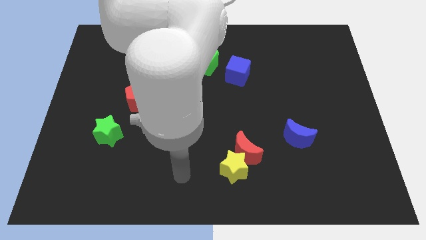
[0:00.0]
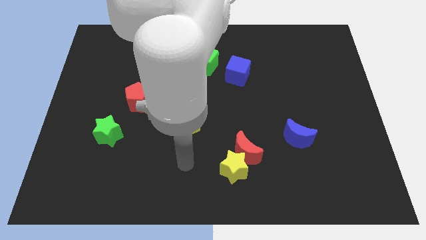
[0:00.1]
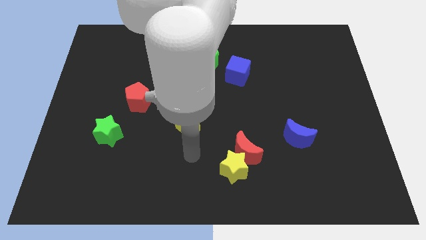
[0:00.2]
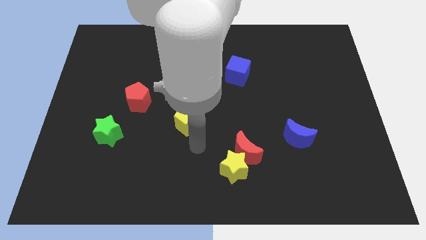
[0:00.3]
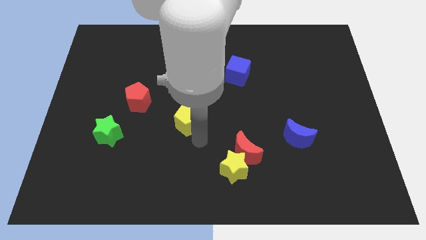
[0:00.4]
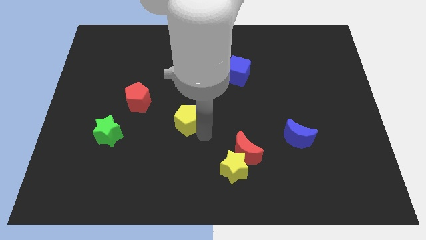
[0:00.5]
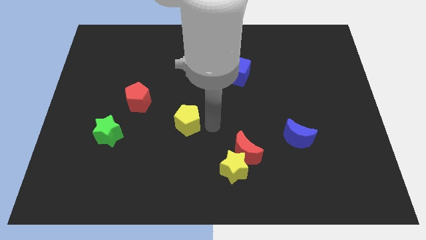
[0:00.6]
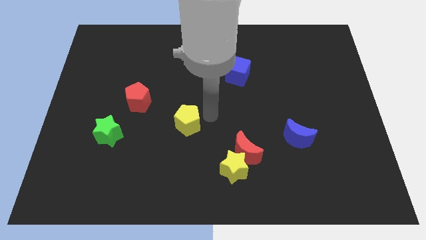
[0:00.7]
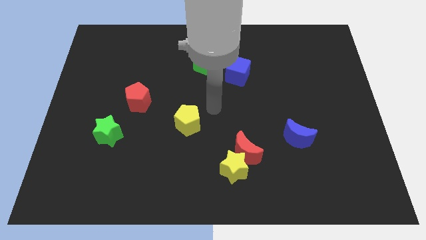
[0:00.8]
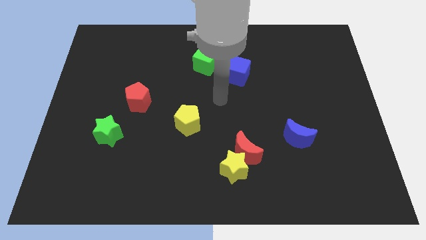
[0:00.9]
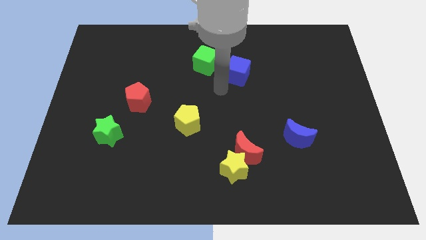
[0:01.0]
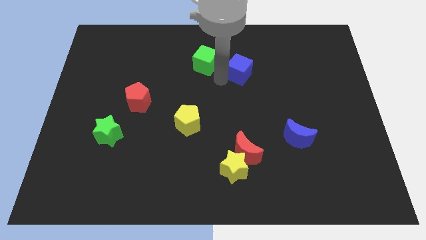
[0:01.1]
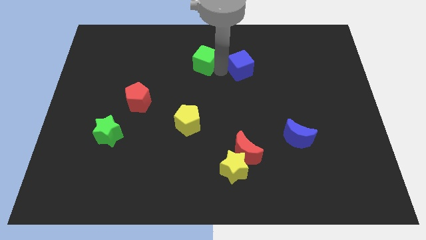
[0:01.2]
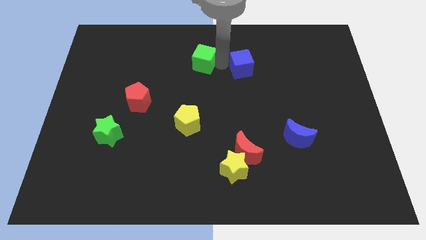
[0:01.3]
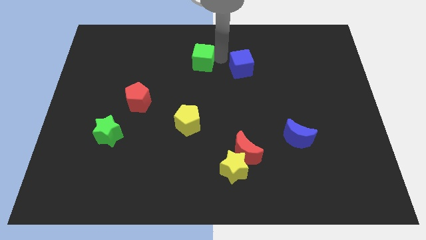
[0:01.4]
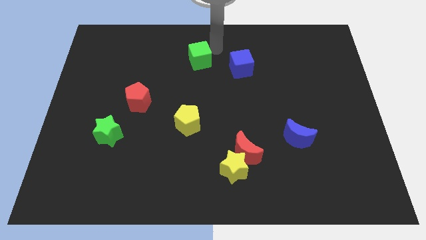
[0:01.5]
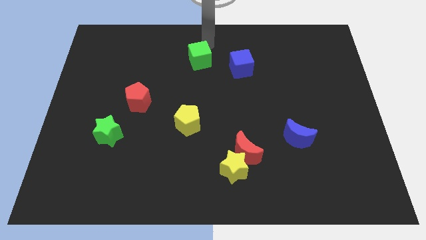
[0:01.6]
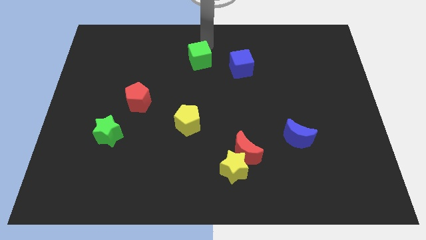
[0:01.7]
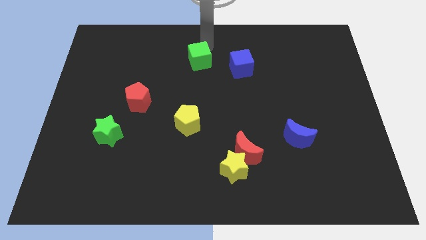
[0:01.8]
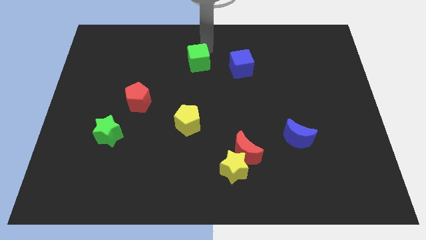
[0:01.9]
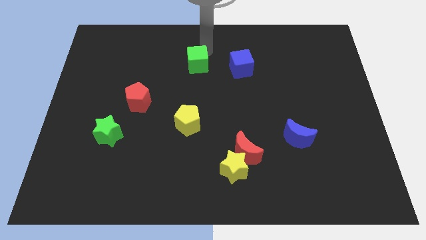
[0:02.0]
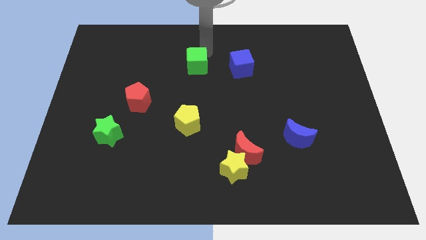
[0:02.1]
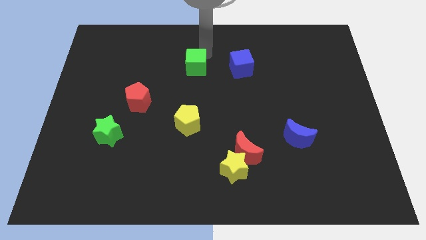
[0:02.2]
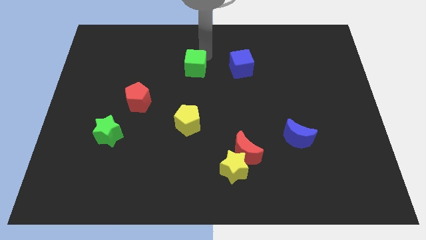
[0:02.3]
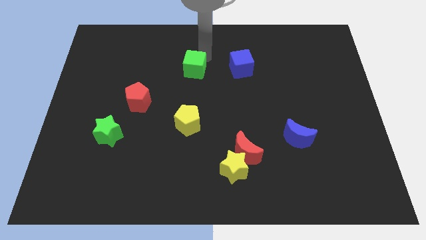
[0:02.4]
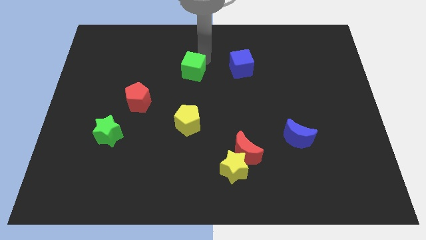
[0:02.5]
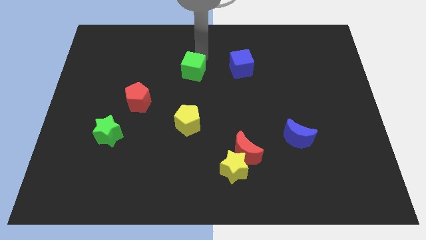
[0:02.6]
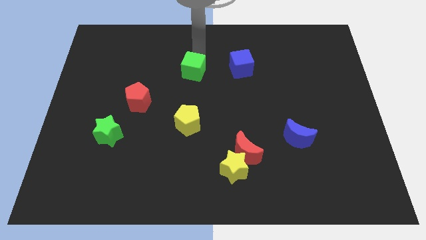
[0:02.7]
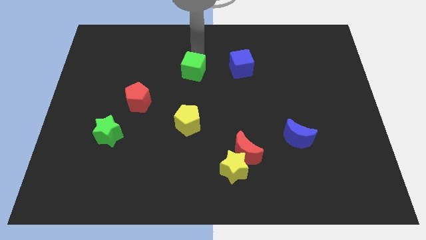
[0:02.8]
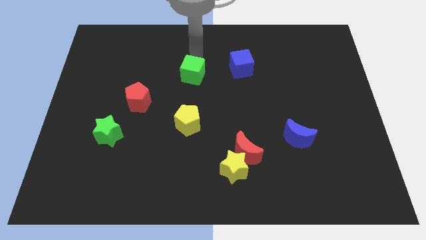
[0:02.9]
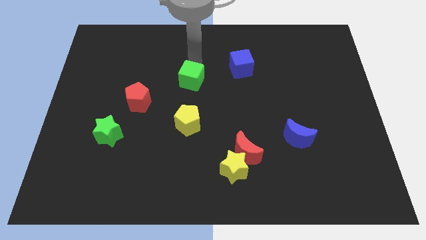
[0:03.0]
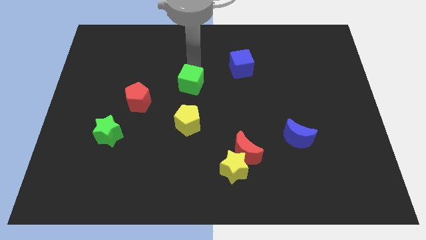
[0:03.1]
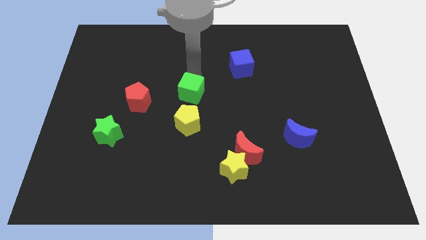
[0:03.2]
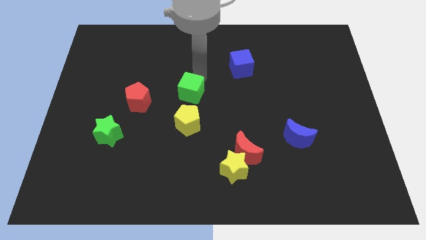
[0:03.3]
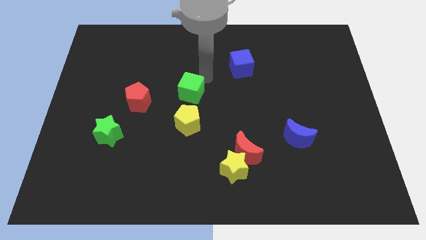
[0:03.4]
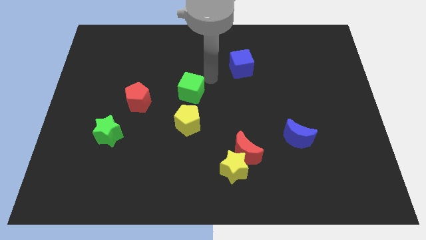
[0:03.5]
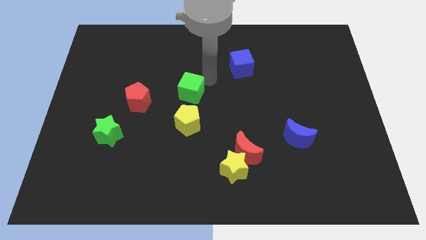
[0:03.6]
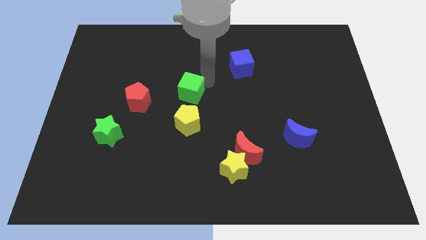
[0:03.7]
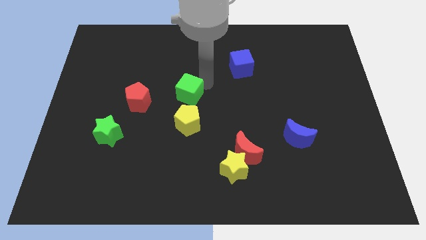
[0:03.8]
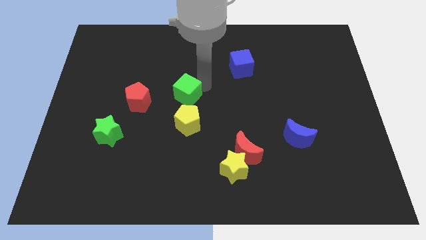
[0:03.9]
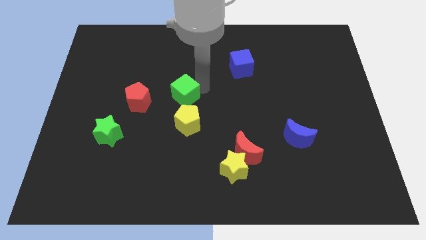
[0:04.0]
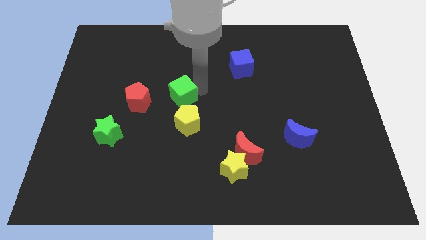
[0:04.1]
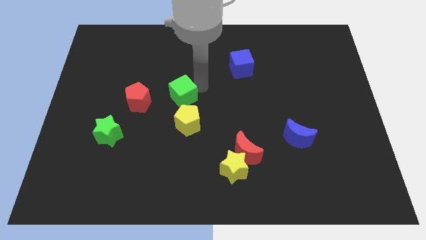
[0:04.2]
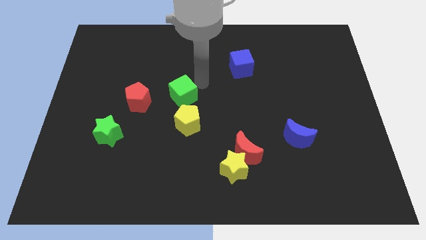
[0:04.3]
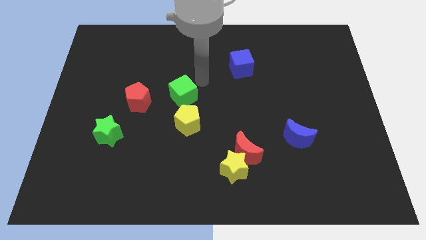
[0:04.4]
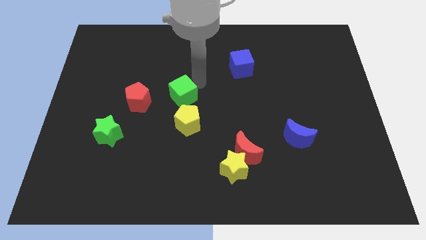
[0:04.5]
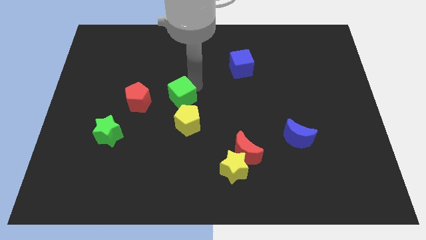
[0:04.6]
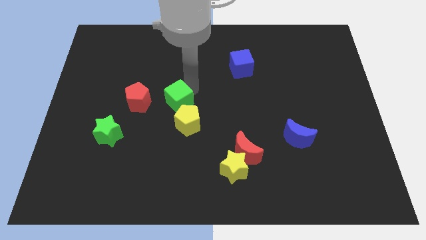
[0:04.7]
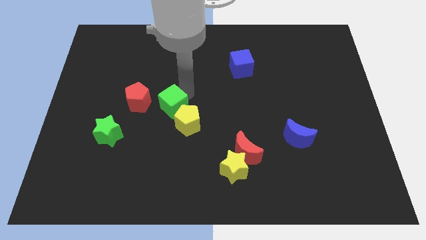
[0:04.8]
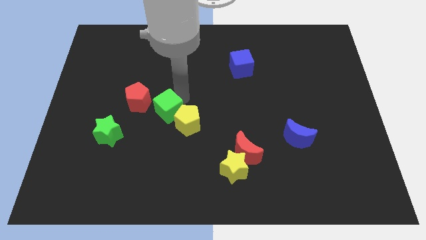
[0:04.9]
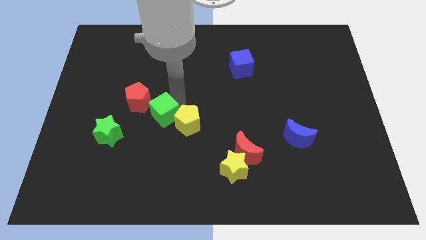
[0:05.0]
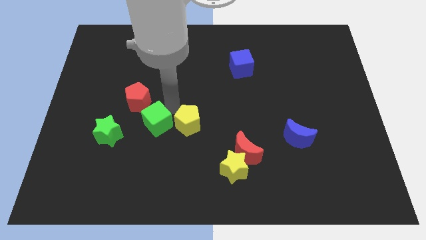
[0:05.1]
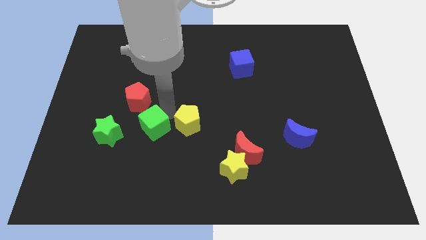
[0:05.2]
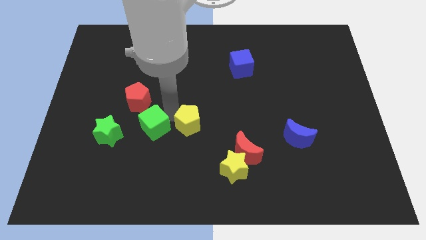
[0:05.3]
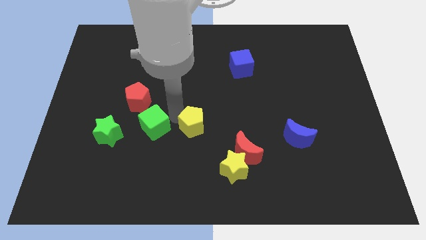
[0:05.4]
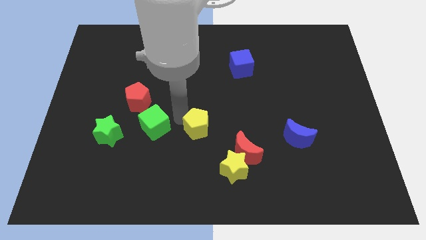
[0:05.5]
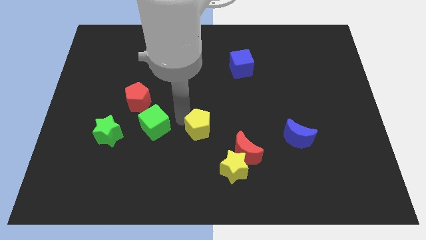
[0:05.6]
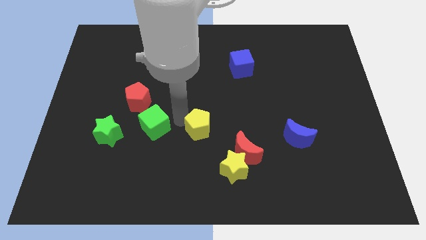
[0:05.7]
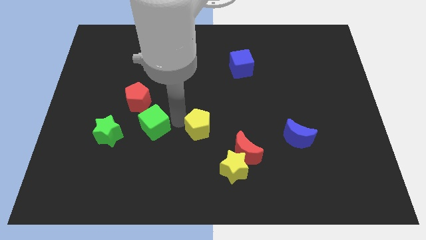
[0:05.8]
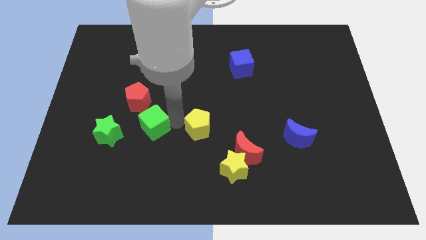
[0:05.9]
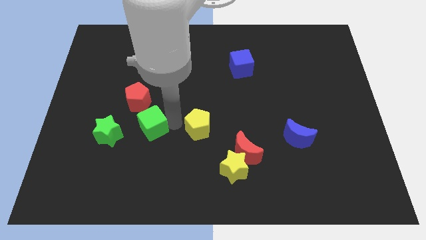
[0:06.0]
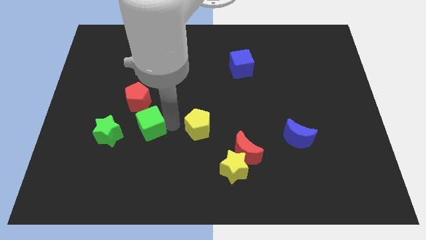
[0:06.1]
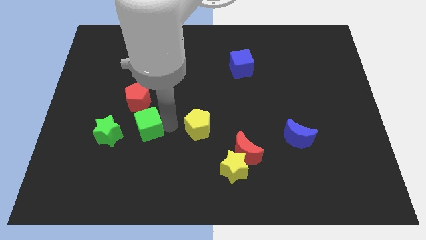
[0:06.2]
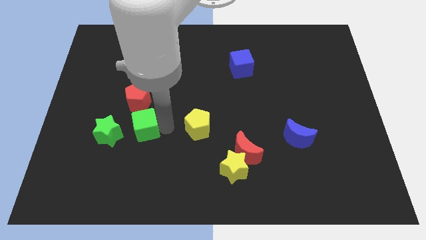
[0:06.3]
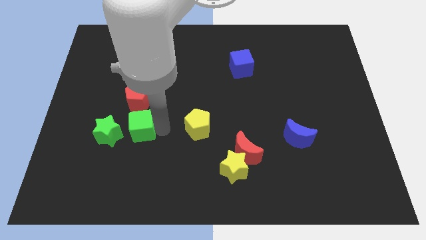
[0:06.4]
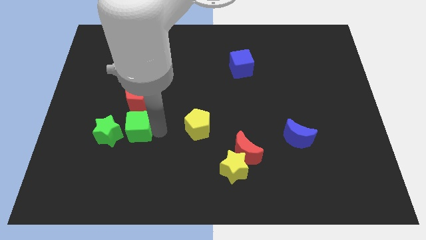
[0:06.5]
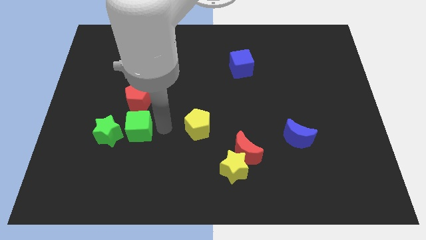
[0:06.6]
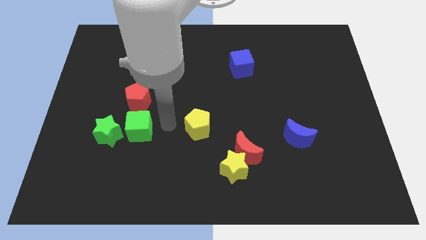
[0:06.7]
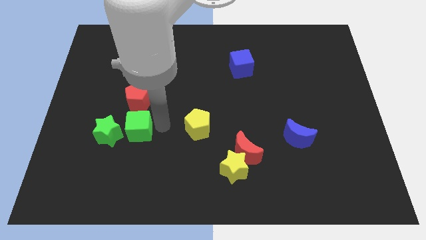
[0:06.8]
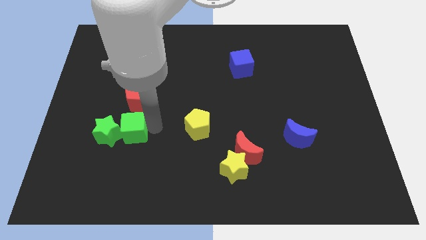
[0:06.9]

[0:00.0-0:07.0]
put the green cube to the green star

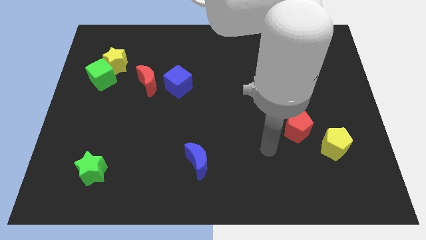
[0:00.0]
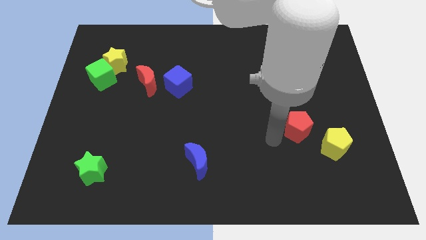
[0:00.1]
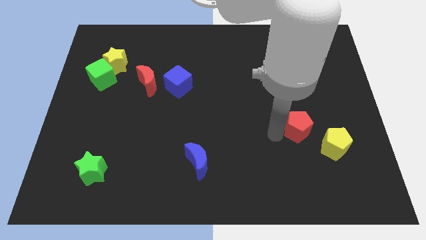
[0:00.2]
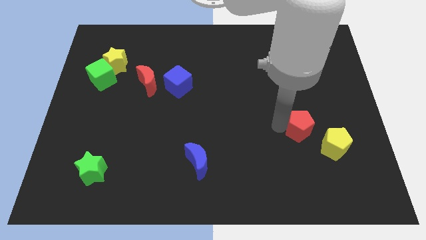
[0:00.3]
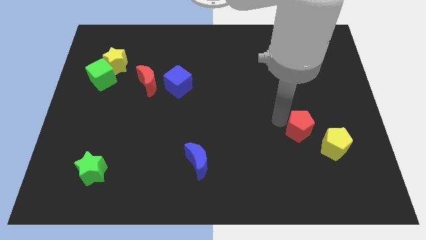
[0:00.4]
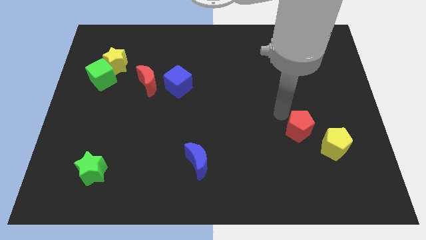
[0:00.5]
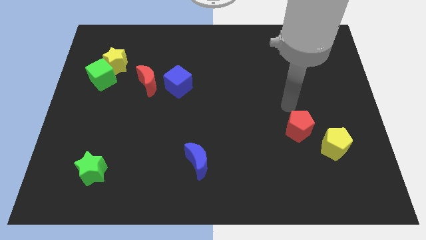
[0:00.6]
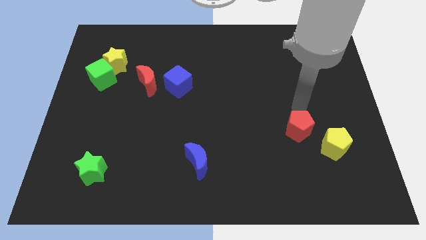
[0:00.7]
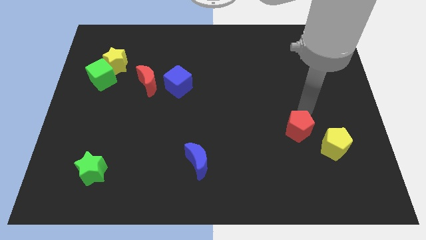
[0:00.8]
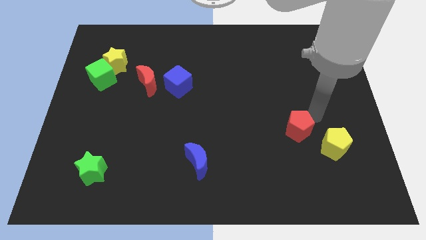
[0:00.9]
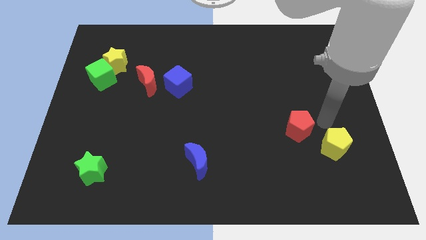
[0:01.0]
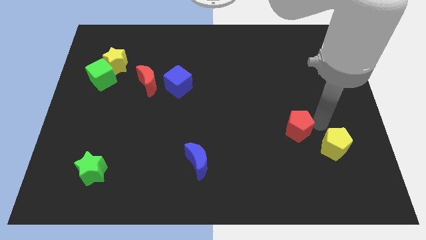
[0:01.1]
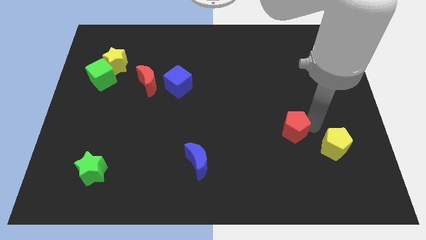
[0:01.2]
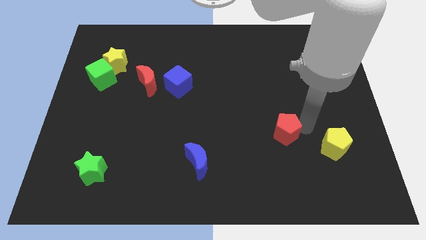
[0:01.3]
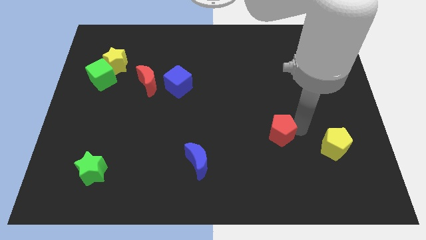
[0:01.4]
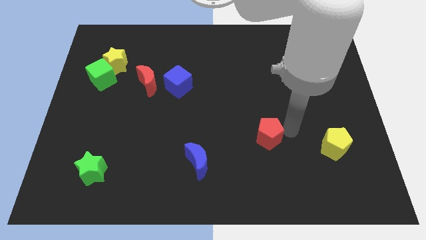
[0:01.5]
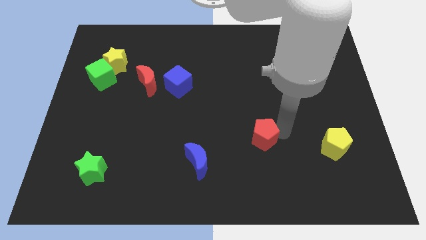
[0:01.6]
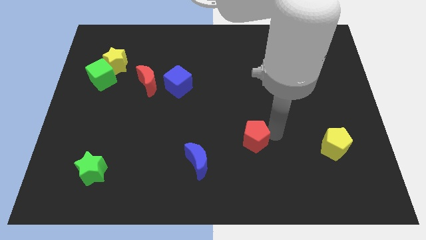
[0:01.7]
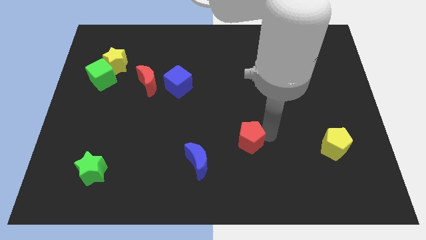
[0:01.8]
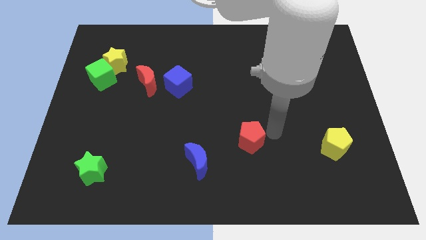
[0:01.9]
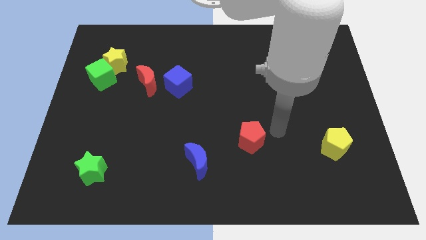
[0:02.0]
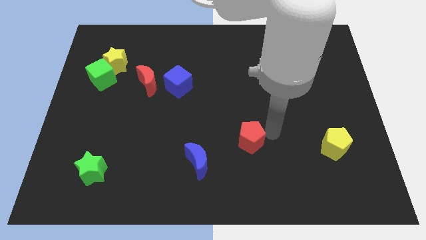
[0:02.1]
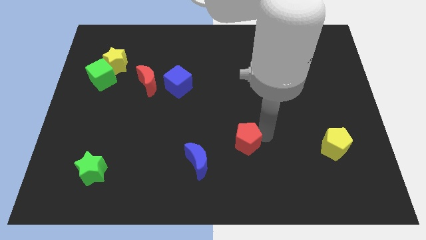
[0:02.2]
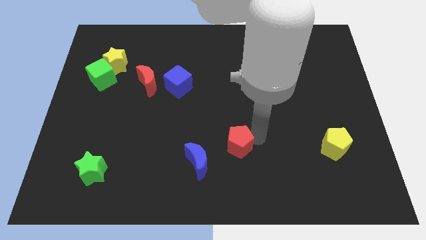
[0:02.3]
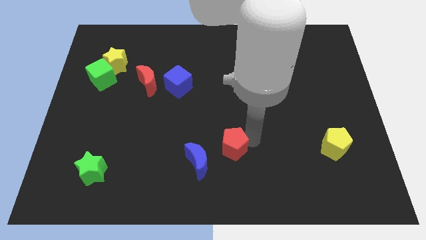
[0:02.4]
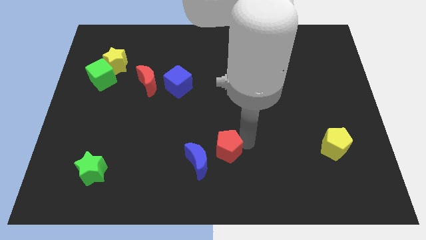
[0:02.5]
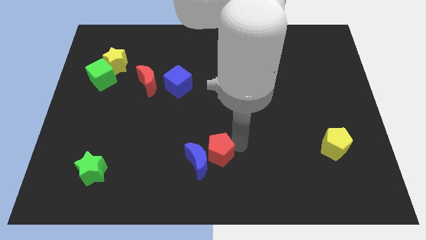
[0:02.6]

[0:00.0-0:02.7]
slide the red pentagon close to the blue moon
